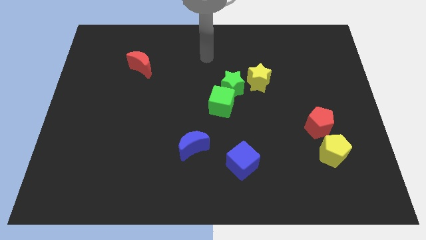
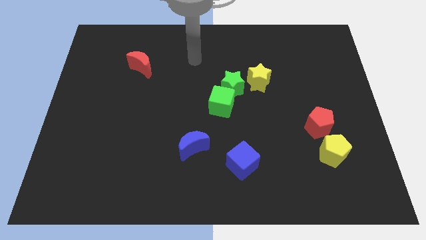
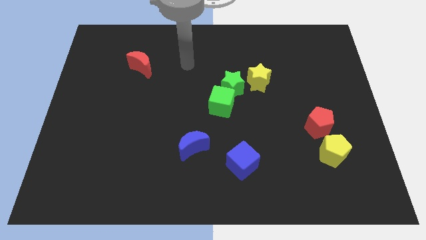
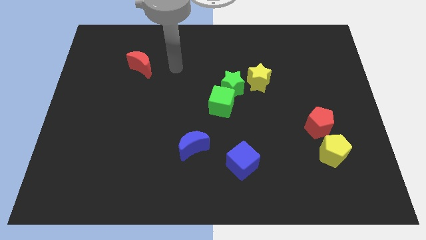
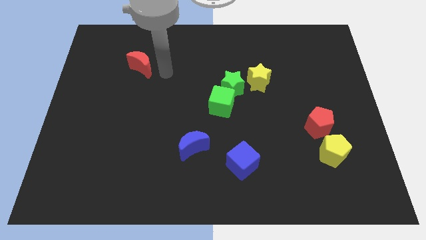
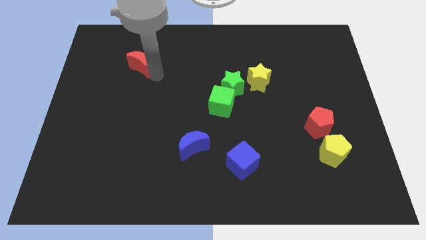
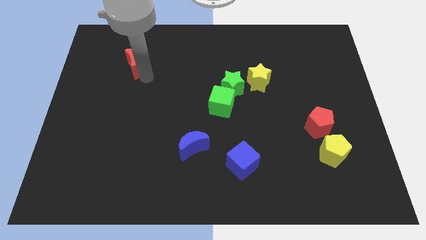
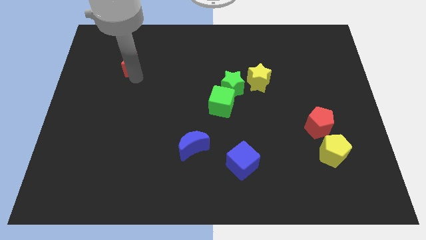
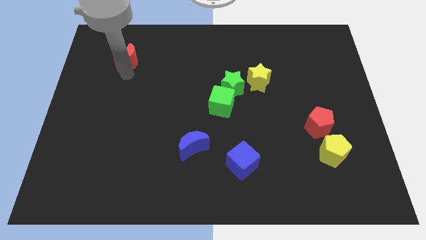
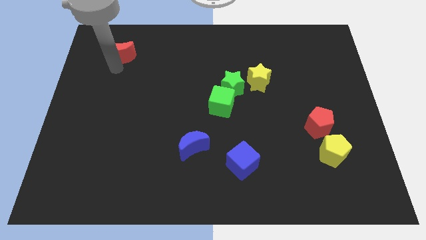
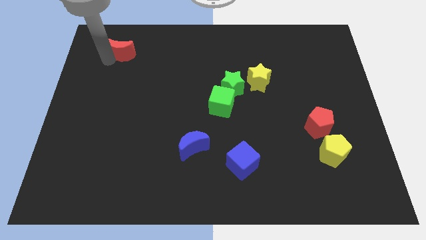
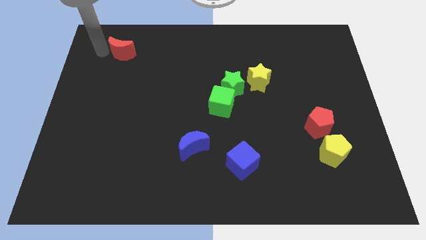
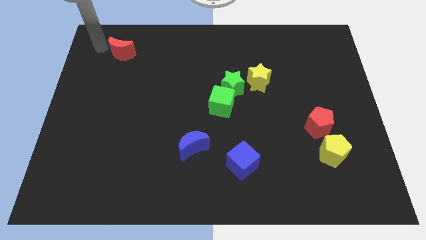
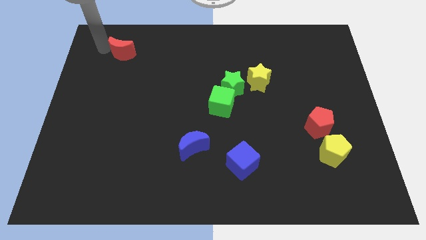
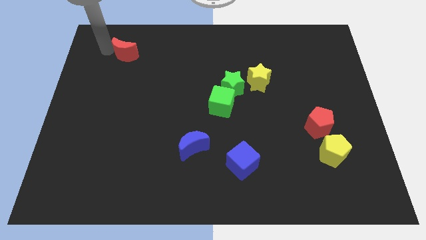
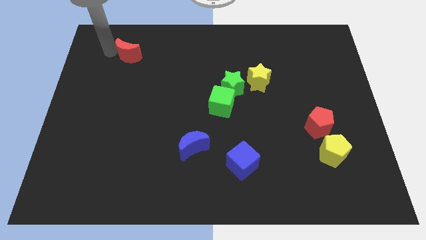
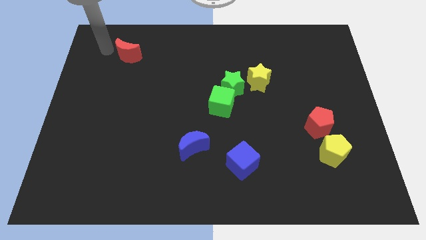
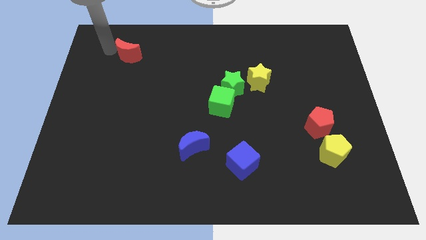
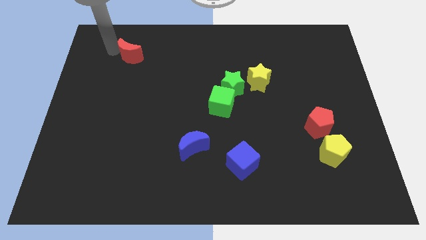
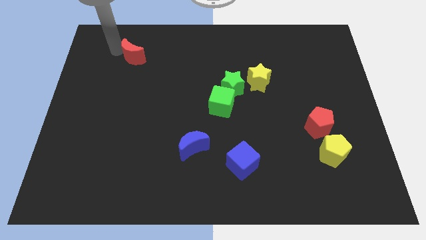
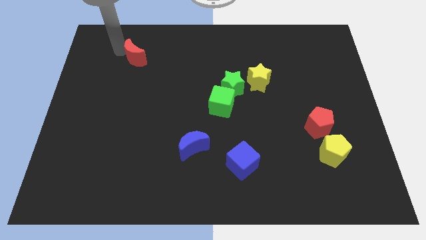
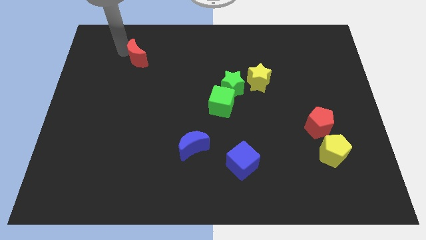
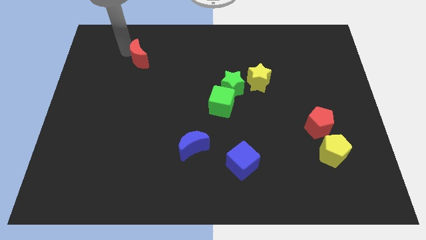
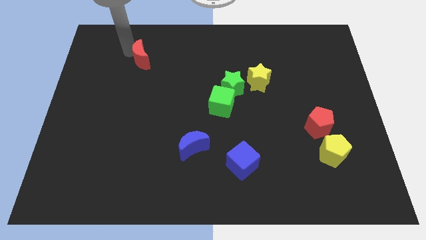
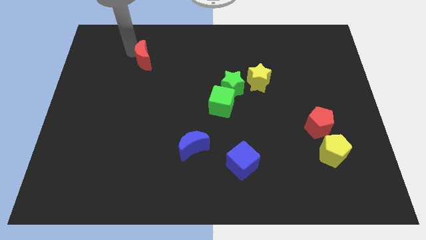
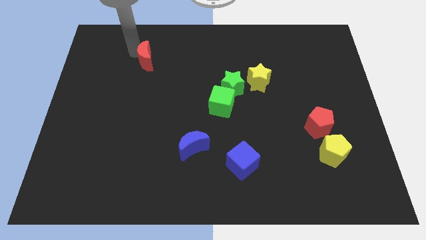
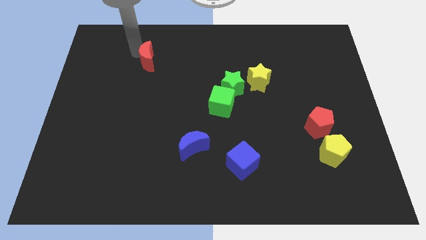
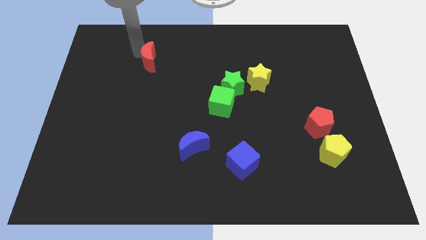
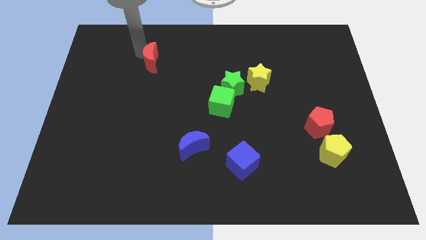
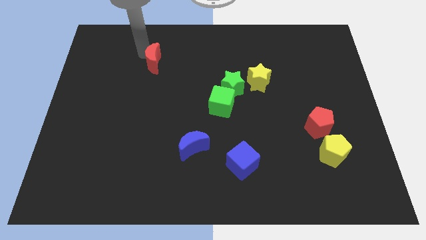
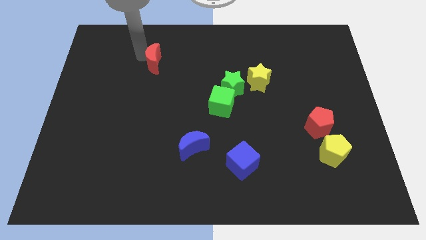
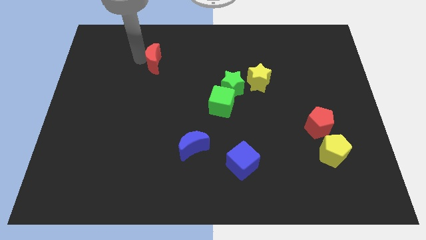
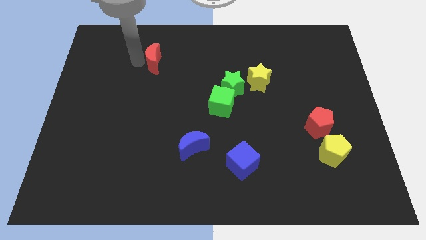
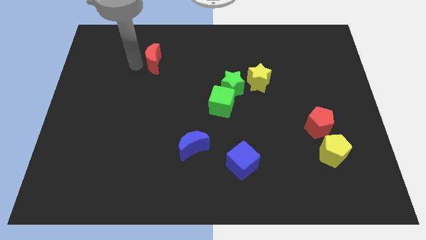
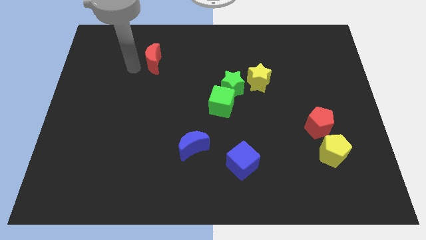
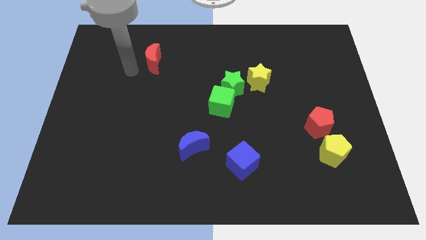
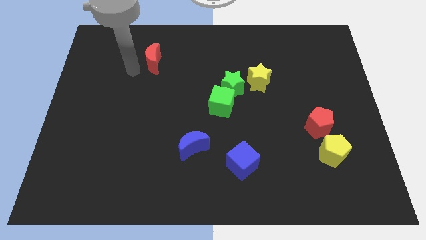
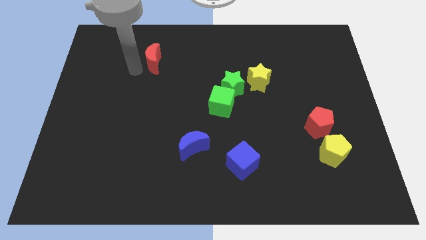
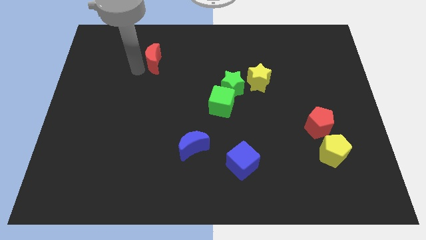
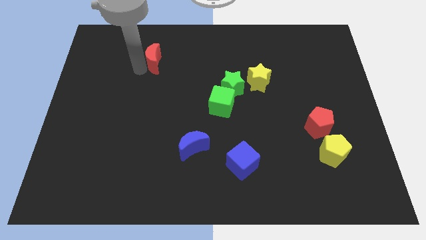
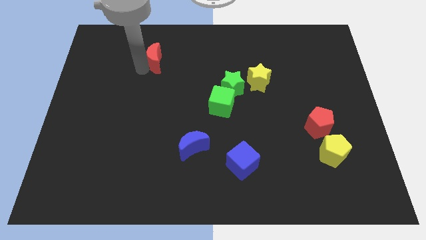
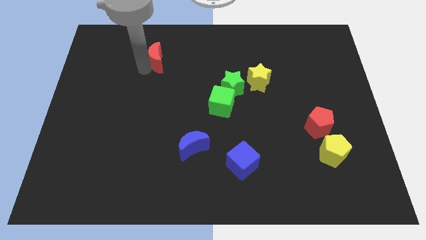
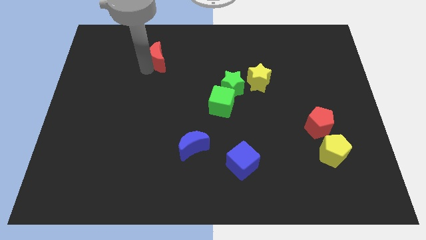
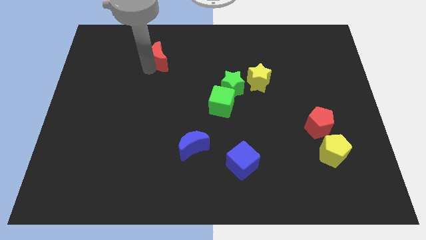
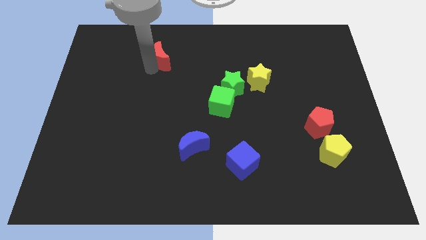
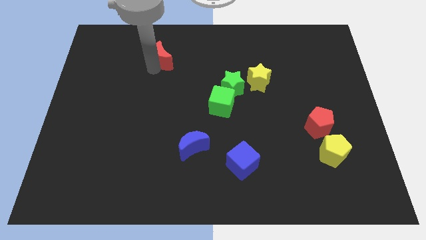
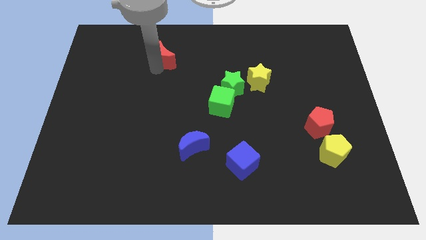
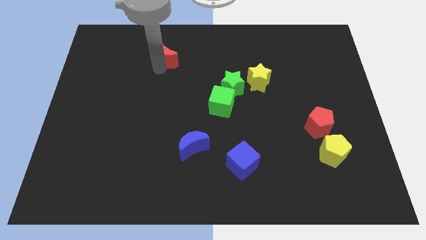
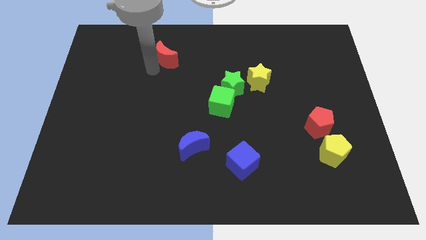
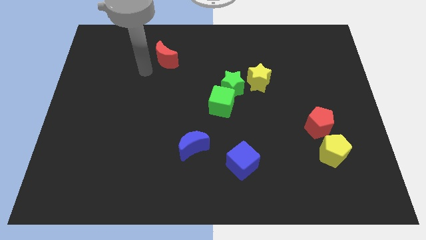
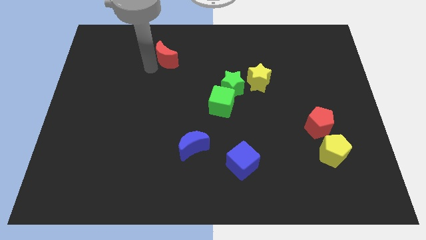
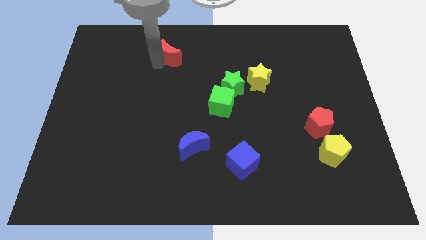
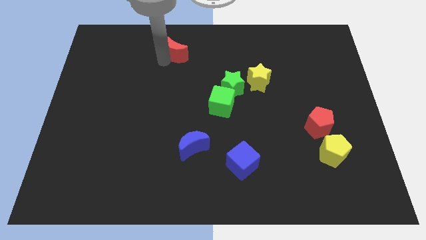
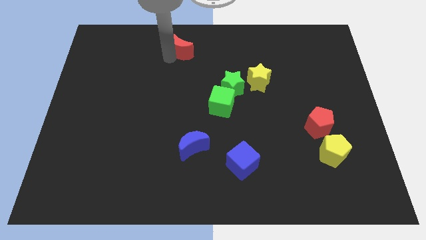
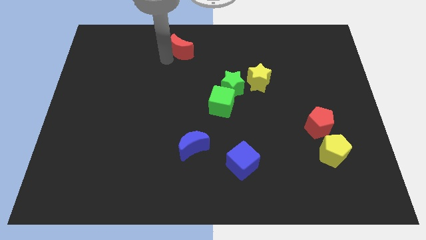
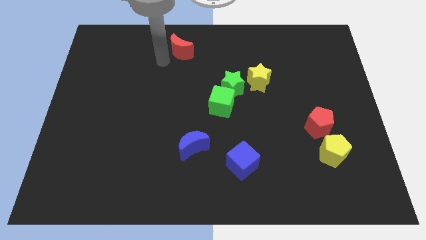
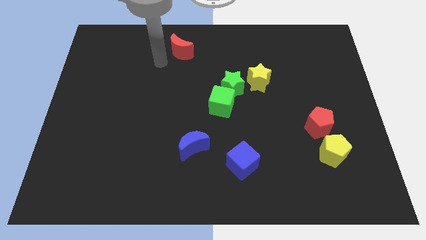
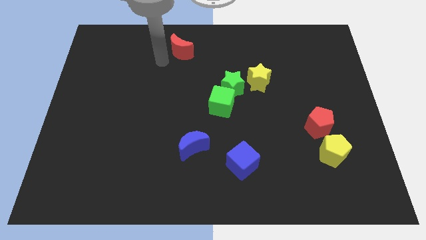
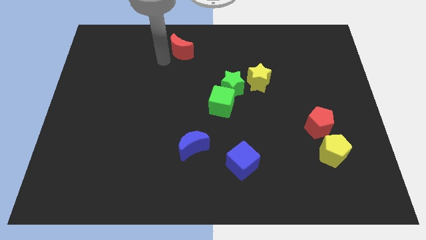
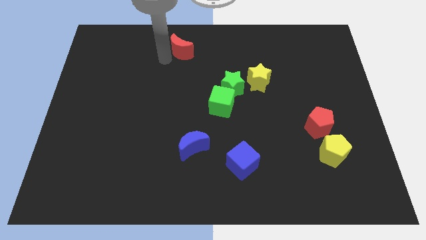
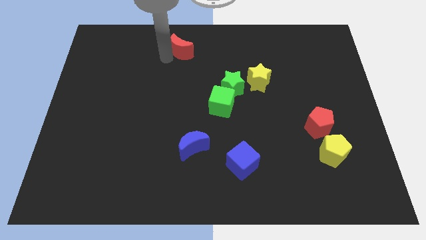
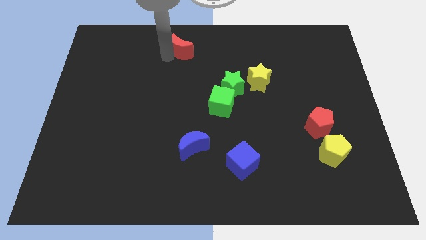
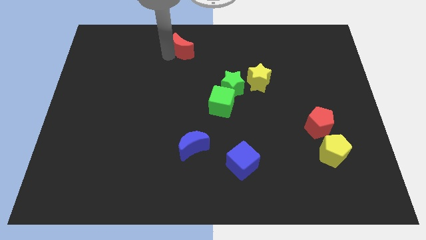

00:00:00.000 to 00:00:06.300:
move the red moon to the top side

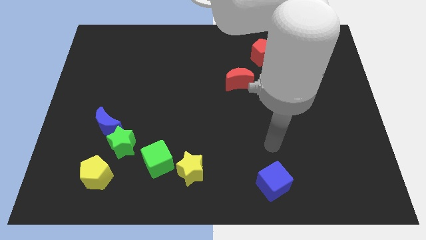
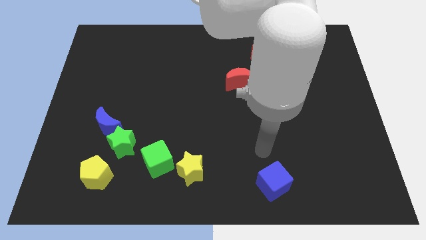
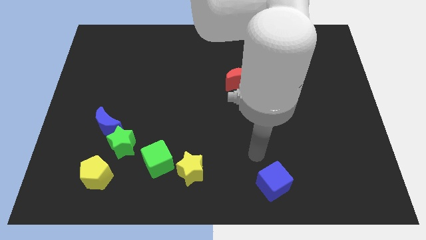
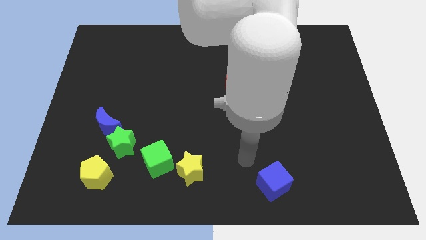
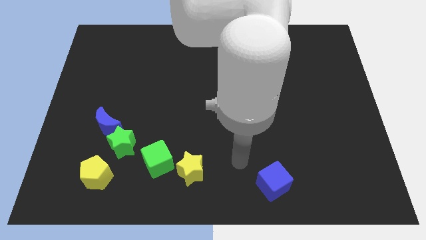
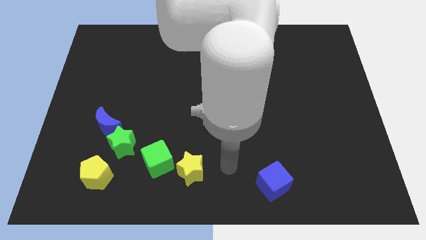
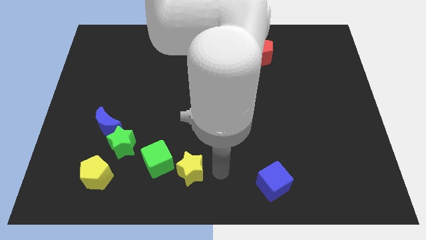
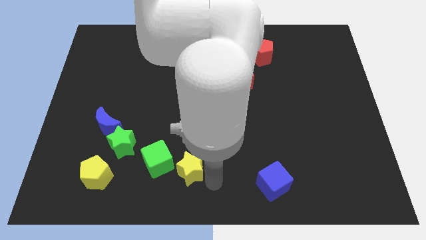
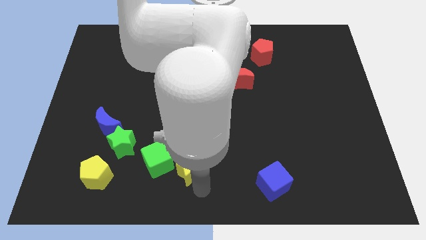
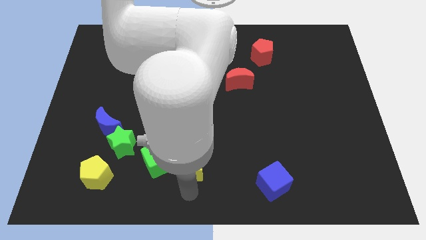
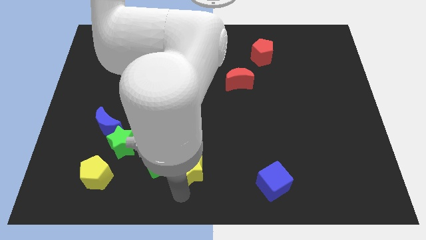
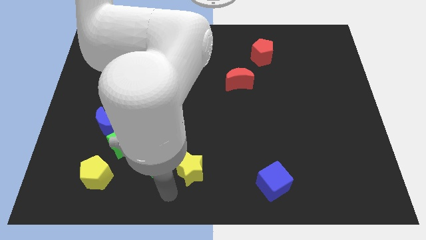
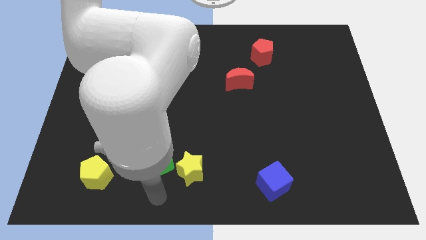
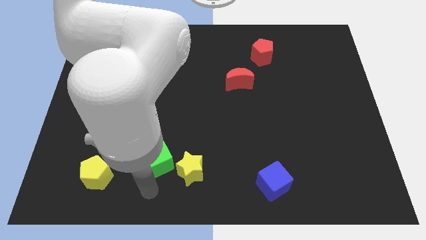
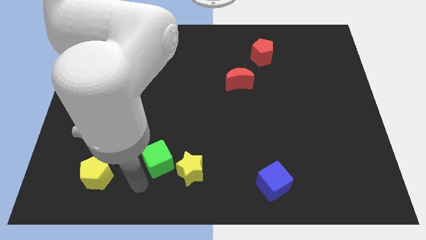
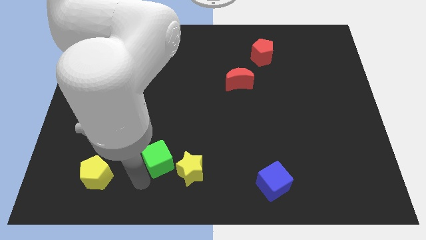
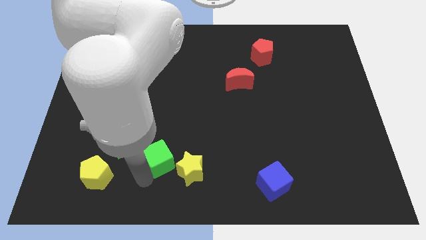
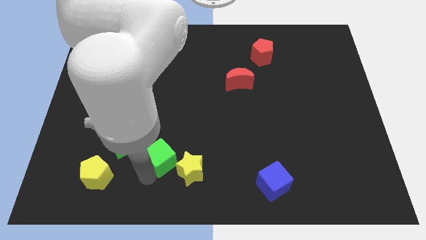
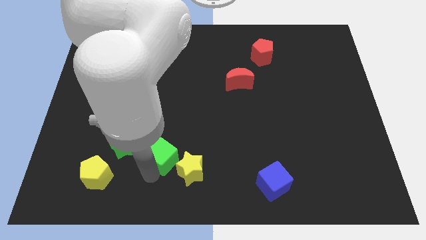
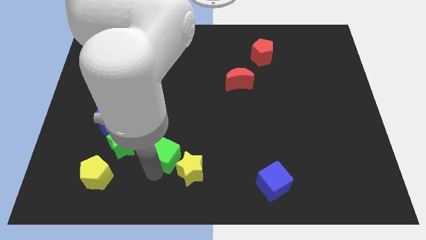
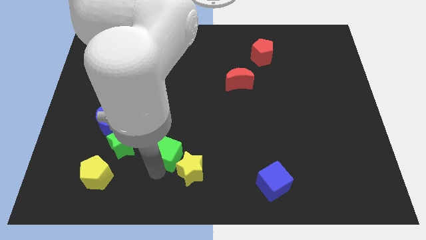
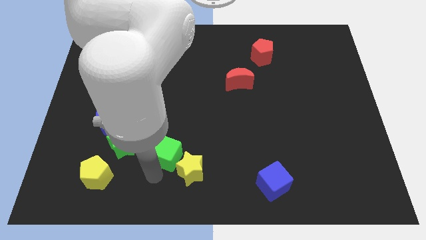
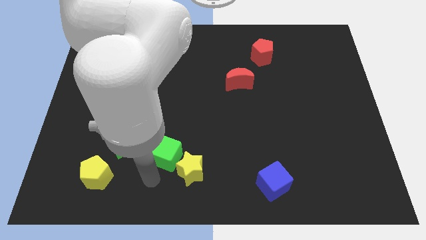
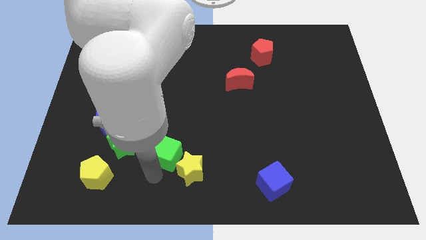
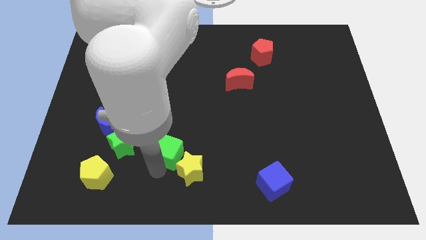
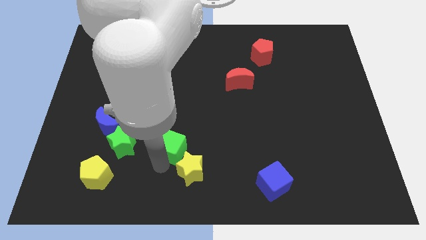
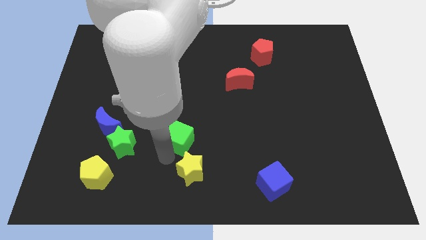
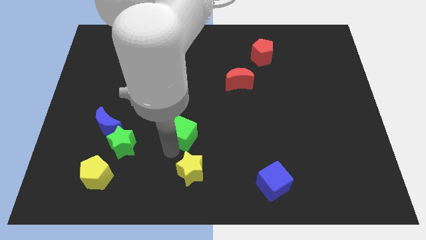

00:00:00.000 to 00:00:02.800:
move the green cube to the center
